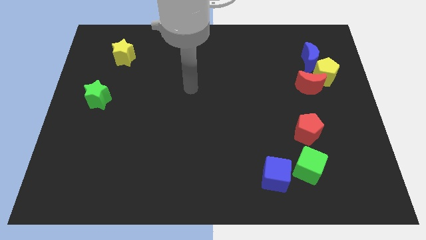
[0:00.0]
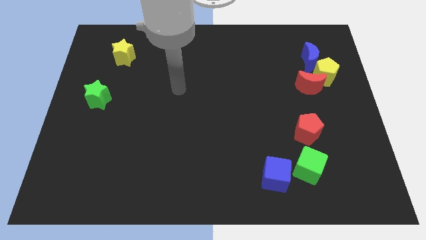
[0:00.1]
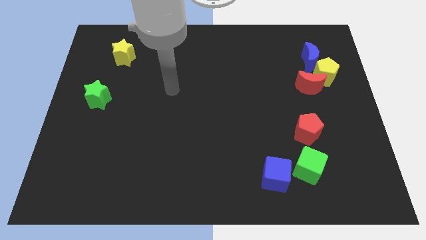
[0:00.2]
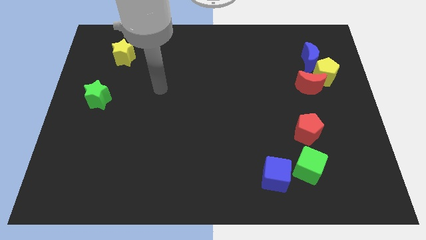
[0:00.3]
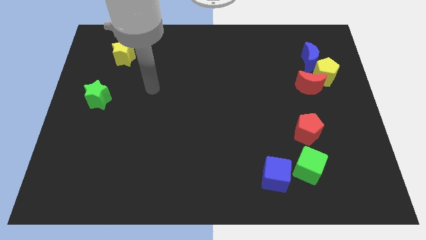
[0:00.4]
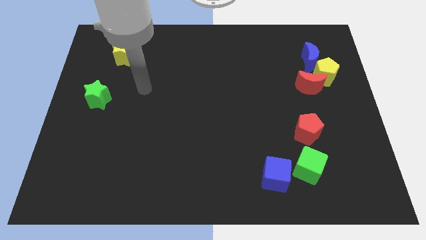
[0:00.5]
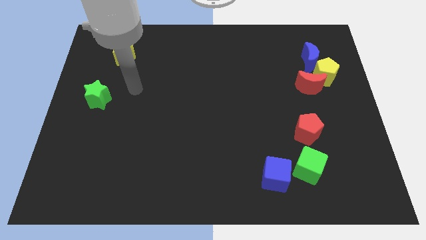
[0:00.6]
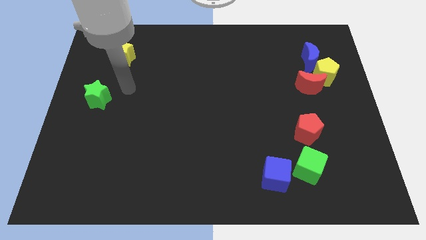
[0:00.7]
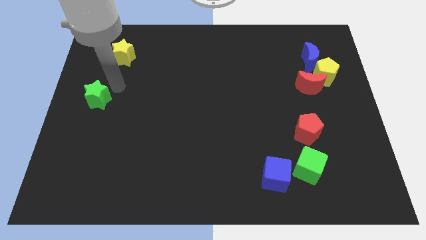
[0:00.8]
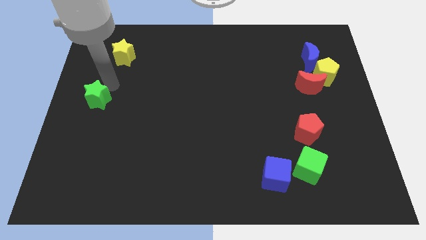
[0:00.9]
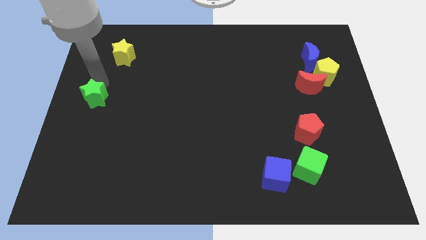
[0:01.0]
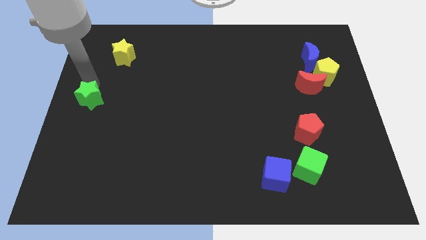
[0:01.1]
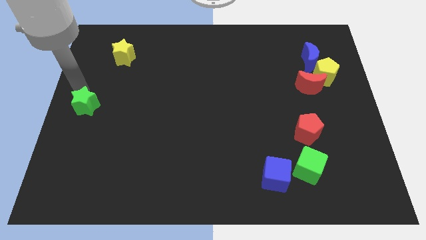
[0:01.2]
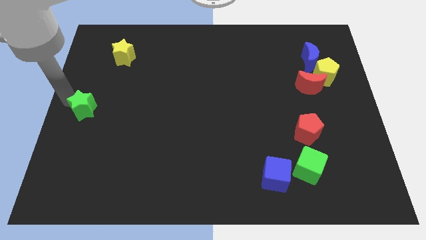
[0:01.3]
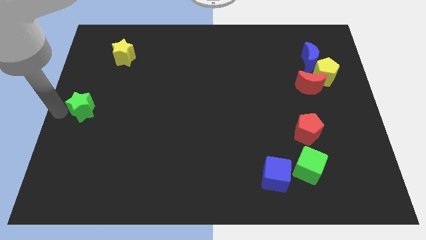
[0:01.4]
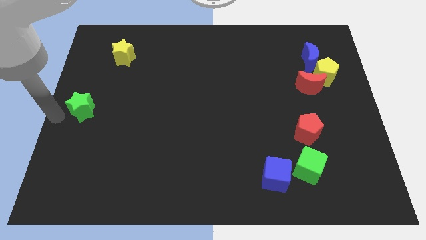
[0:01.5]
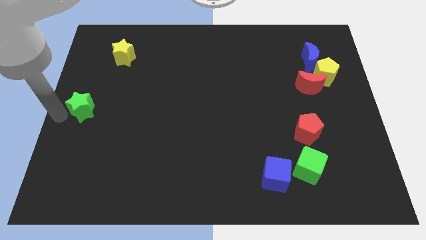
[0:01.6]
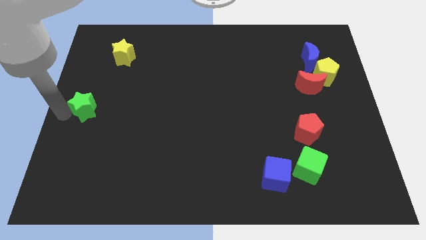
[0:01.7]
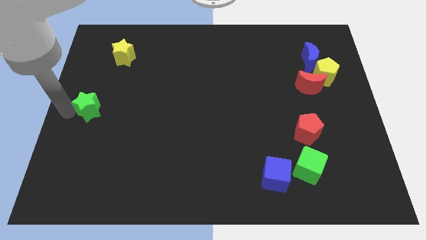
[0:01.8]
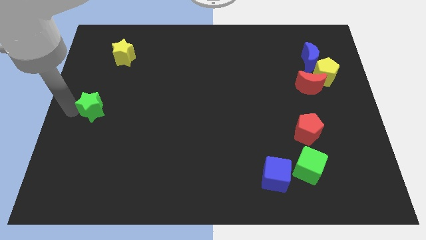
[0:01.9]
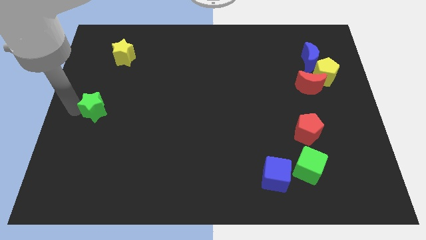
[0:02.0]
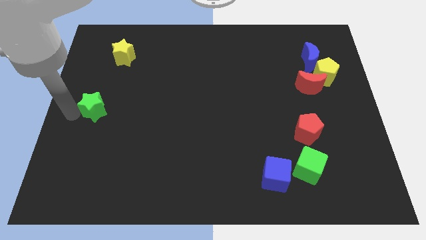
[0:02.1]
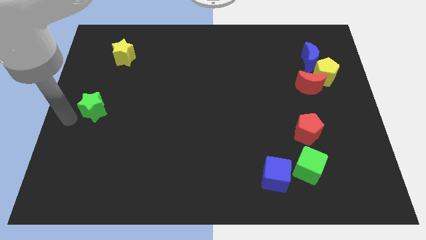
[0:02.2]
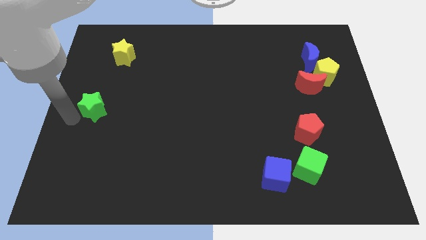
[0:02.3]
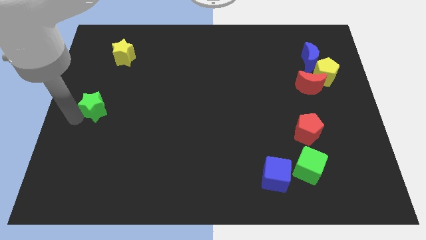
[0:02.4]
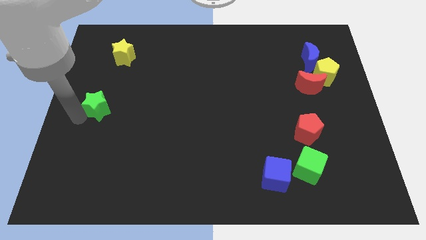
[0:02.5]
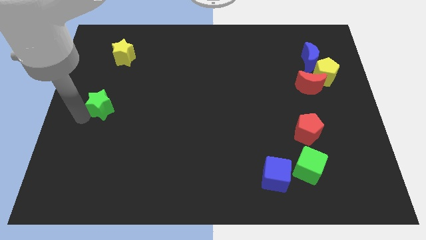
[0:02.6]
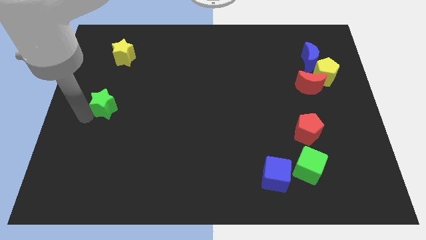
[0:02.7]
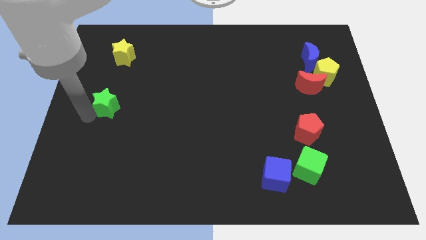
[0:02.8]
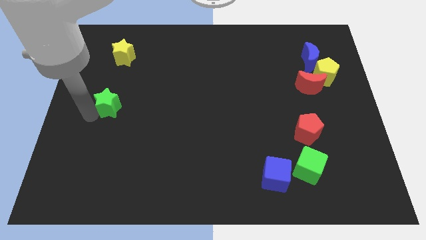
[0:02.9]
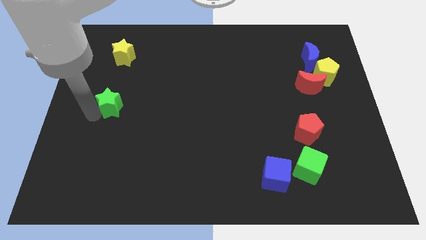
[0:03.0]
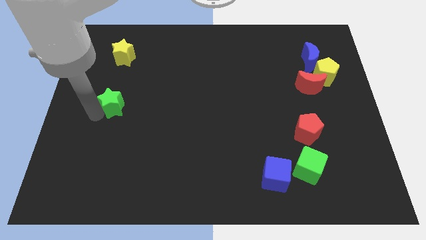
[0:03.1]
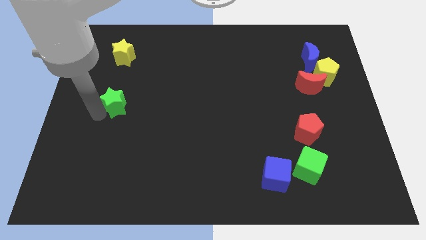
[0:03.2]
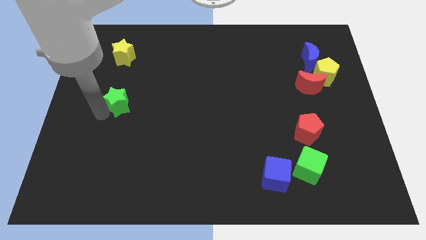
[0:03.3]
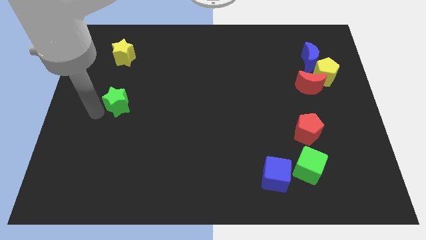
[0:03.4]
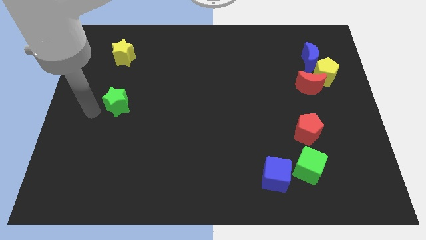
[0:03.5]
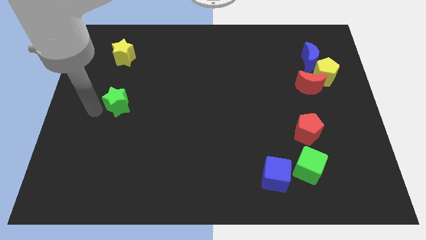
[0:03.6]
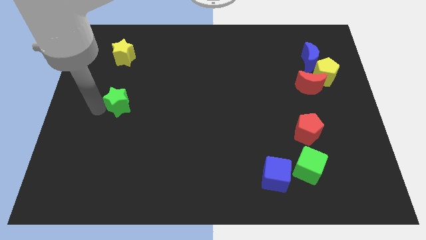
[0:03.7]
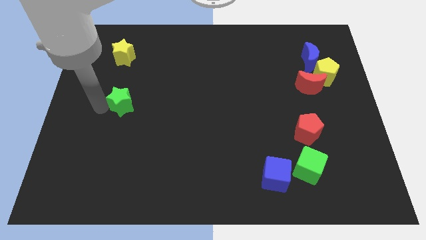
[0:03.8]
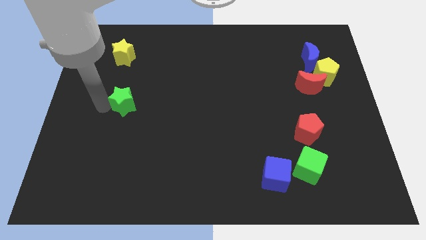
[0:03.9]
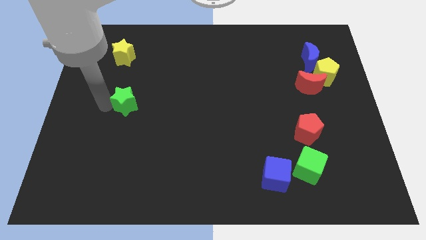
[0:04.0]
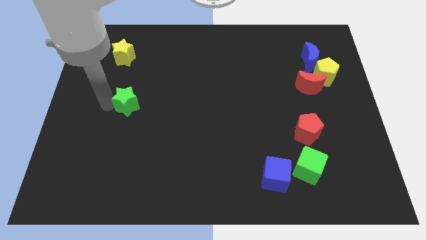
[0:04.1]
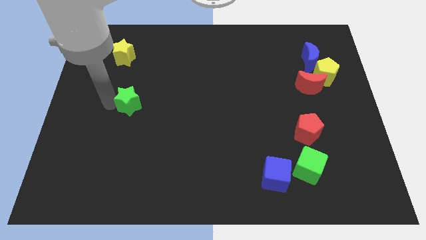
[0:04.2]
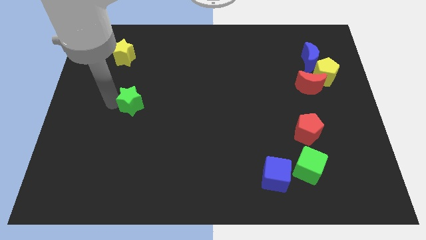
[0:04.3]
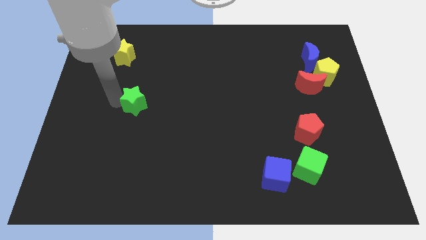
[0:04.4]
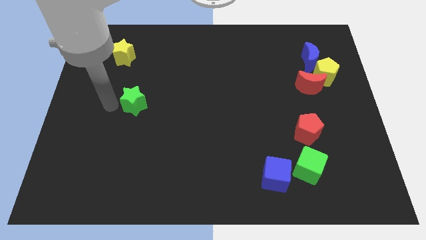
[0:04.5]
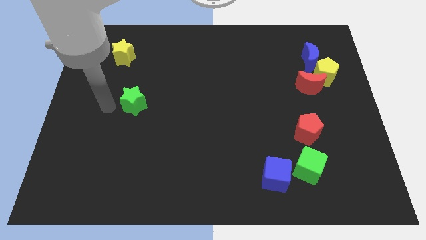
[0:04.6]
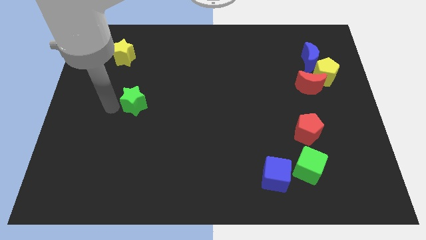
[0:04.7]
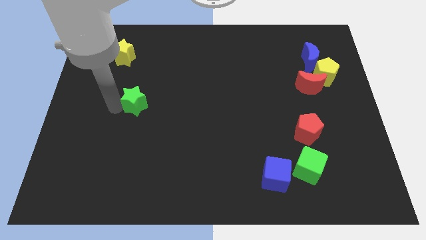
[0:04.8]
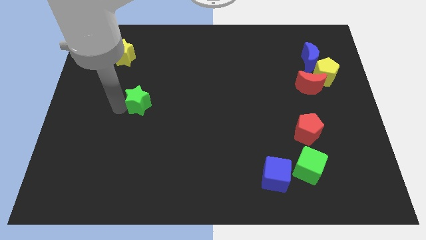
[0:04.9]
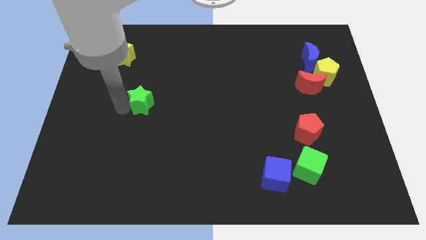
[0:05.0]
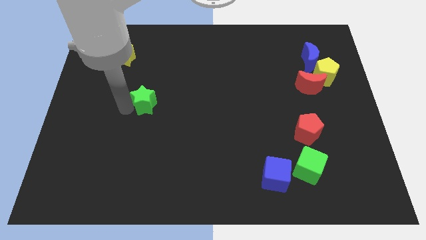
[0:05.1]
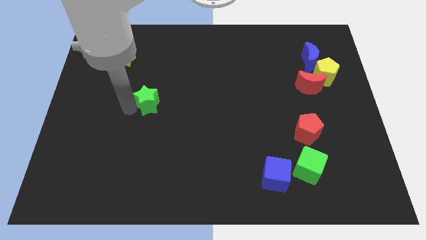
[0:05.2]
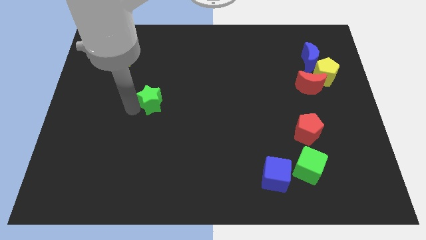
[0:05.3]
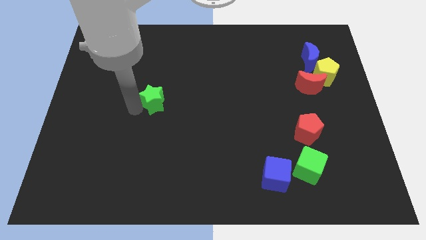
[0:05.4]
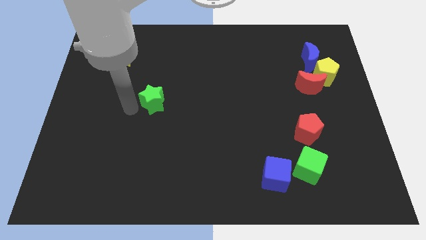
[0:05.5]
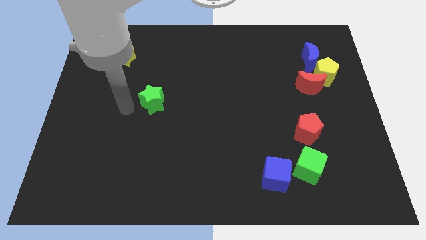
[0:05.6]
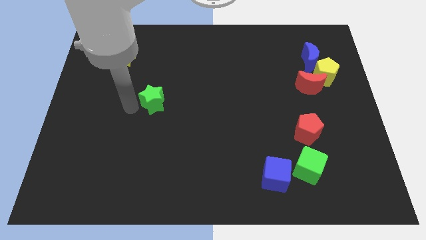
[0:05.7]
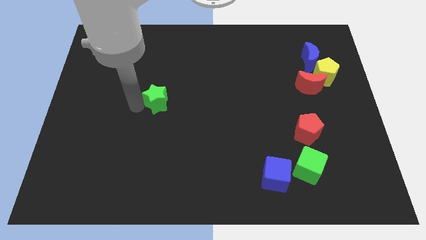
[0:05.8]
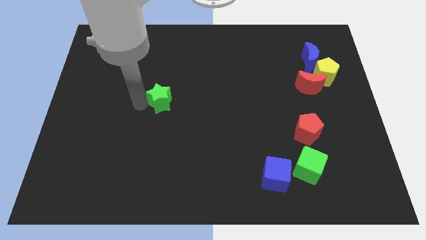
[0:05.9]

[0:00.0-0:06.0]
slide the green star to the center

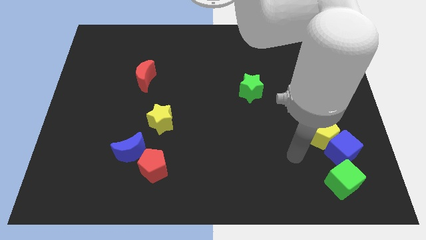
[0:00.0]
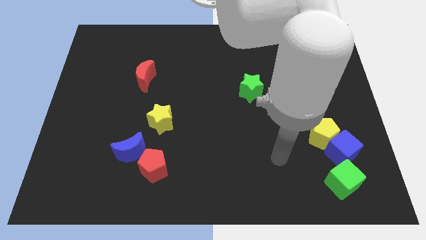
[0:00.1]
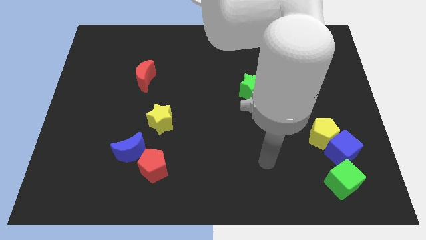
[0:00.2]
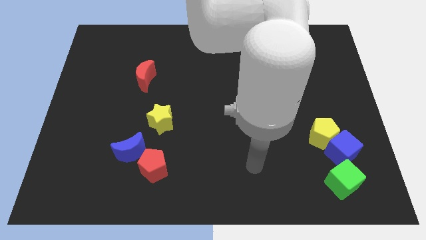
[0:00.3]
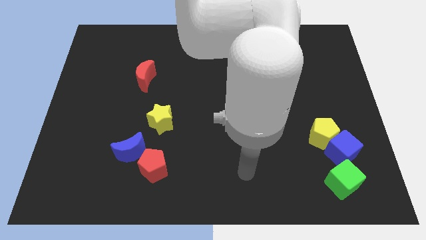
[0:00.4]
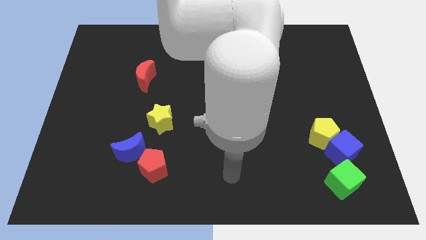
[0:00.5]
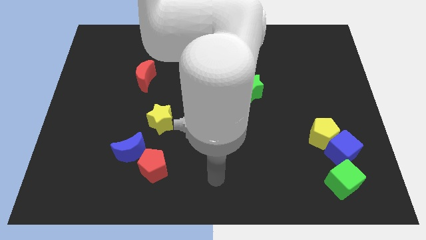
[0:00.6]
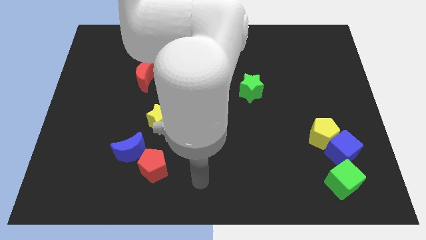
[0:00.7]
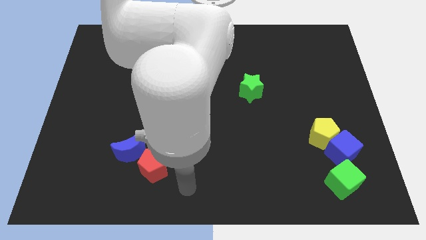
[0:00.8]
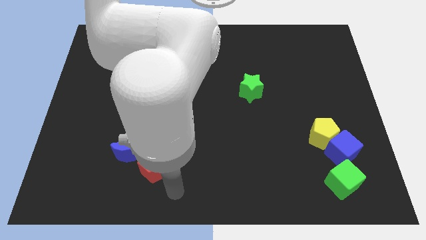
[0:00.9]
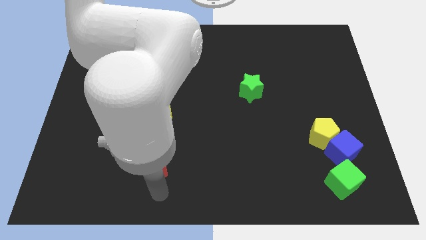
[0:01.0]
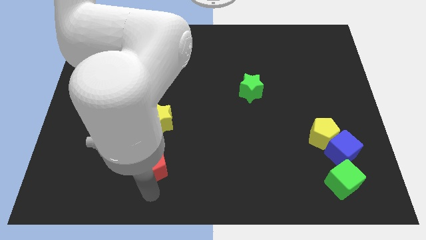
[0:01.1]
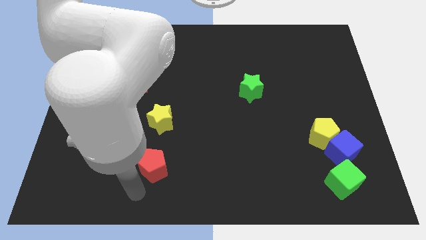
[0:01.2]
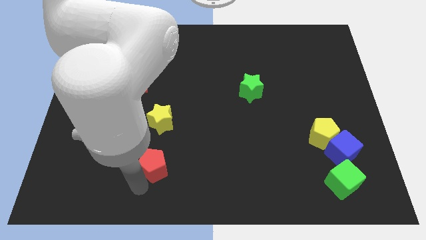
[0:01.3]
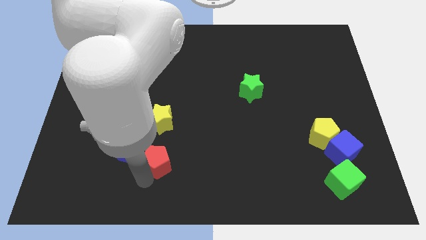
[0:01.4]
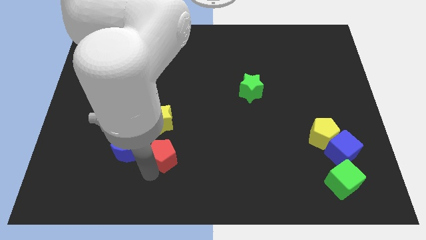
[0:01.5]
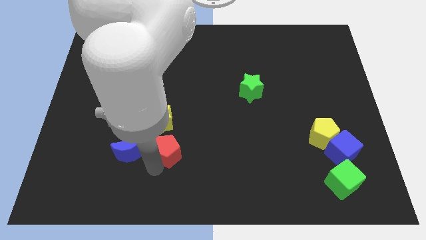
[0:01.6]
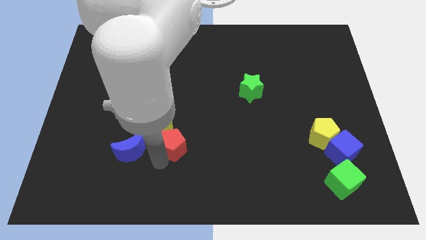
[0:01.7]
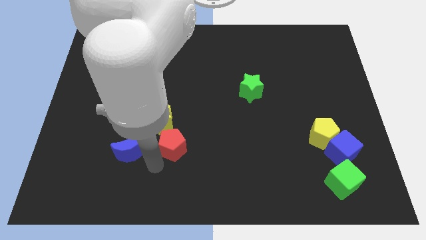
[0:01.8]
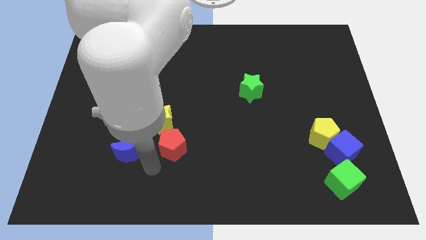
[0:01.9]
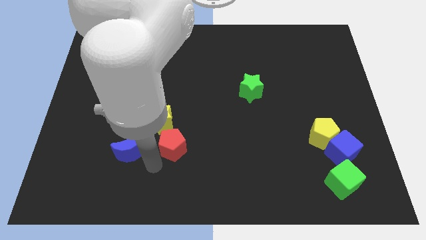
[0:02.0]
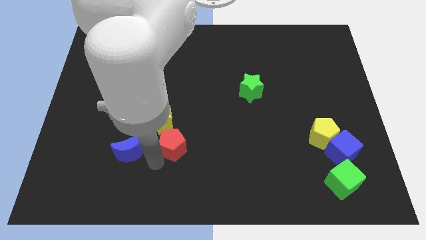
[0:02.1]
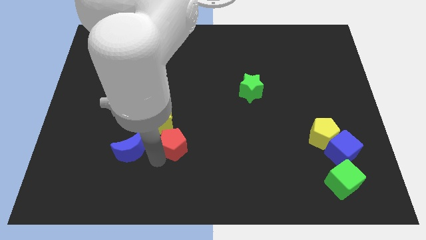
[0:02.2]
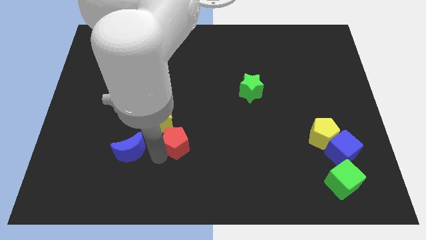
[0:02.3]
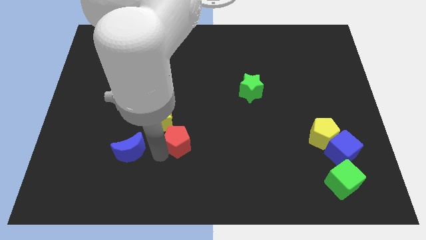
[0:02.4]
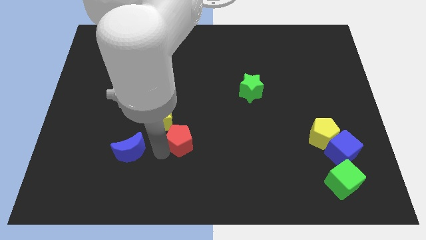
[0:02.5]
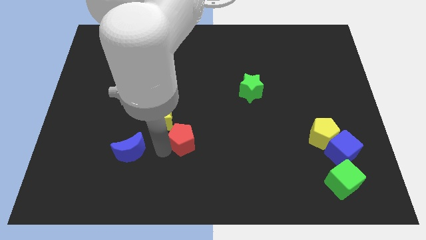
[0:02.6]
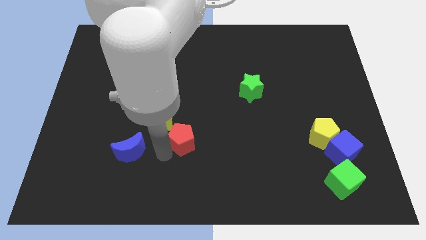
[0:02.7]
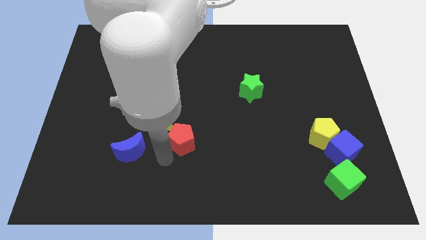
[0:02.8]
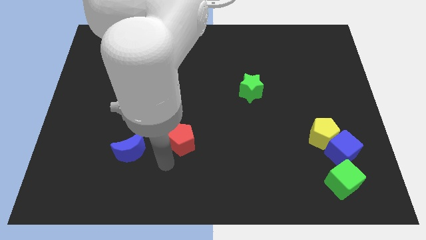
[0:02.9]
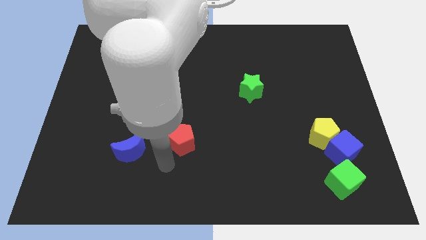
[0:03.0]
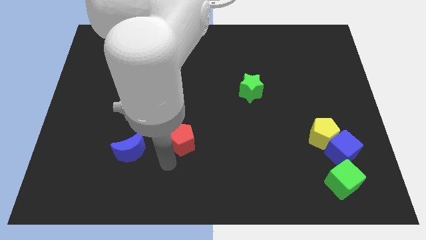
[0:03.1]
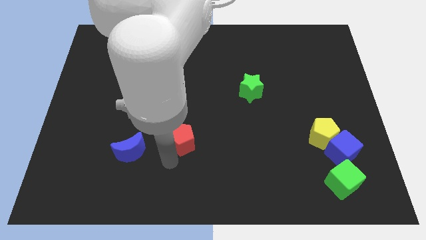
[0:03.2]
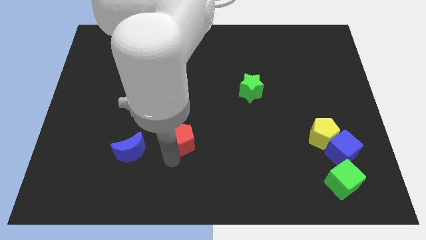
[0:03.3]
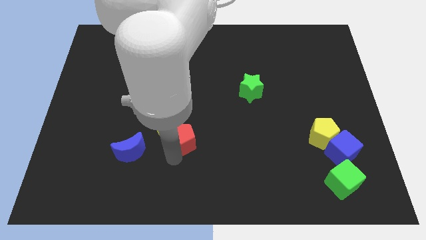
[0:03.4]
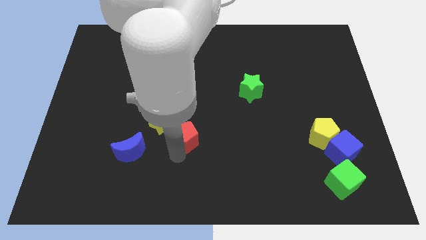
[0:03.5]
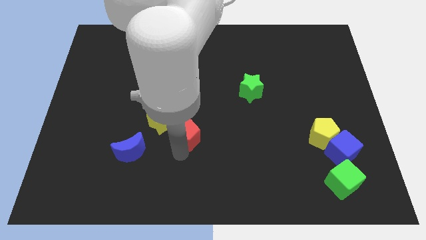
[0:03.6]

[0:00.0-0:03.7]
put the red pentagon to the middle of the board
